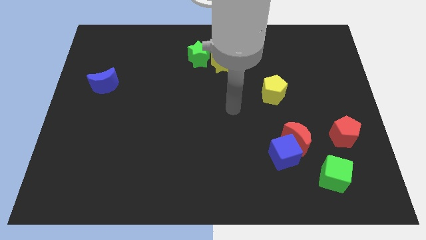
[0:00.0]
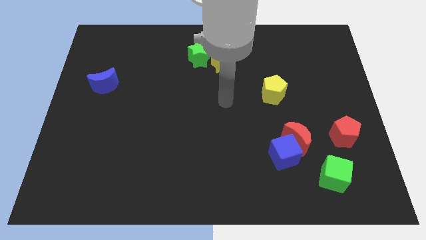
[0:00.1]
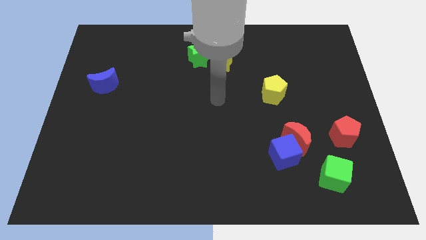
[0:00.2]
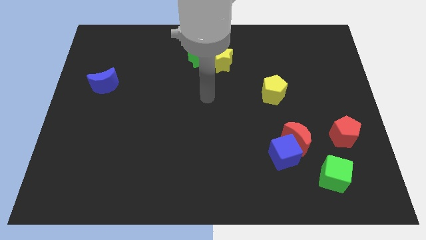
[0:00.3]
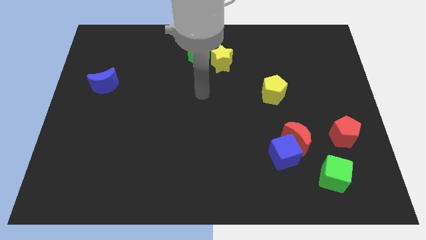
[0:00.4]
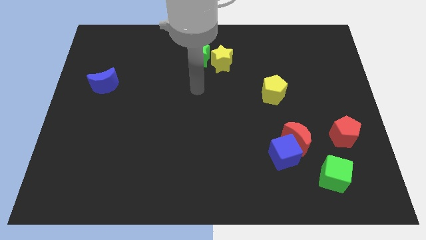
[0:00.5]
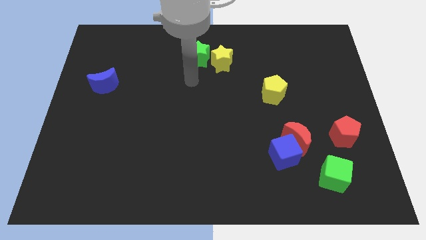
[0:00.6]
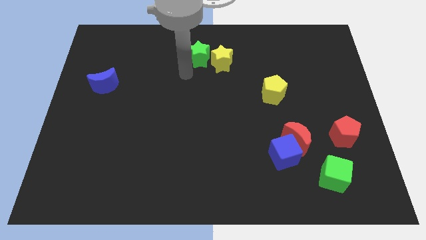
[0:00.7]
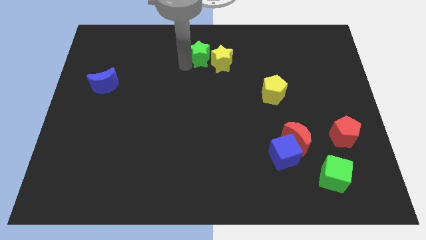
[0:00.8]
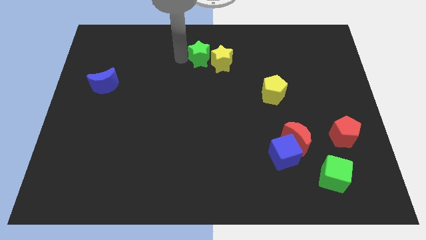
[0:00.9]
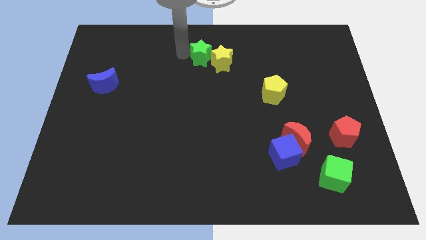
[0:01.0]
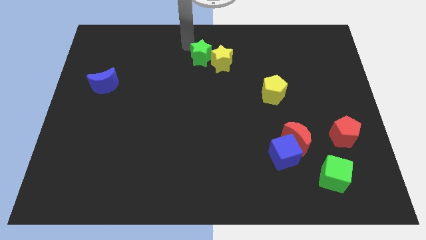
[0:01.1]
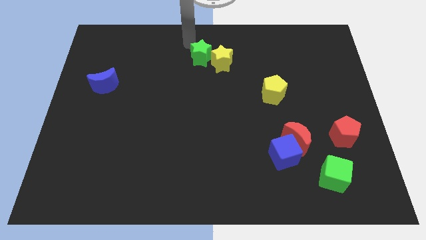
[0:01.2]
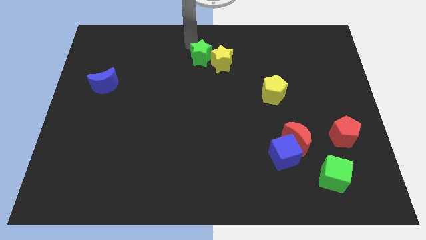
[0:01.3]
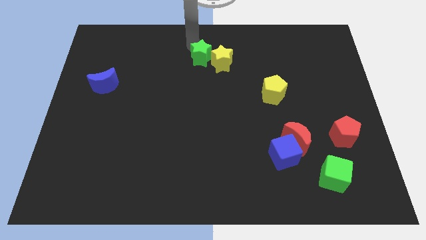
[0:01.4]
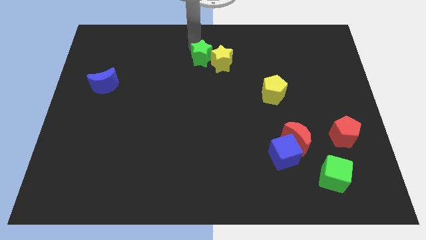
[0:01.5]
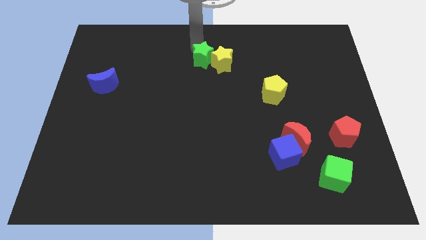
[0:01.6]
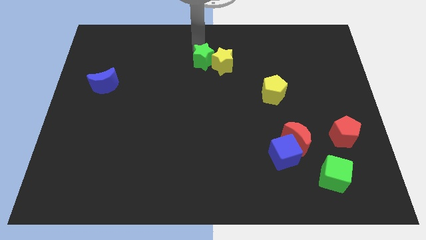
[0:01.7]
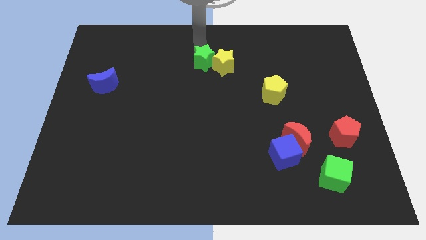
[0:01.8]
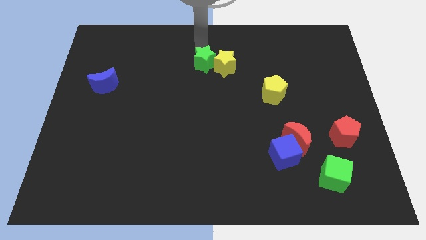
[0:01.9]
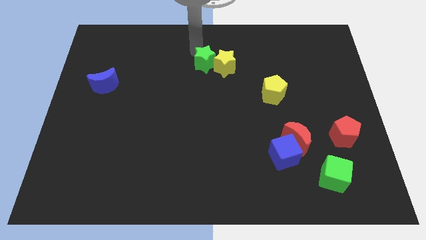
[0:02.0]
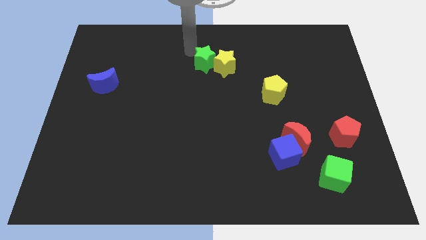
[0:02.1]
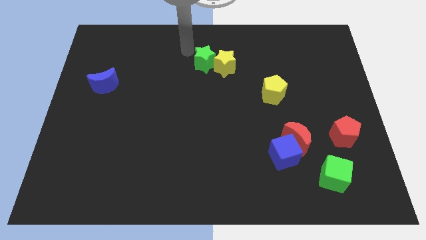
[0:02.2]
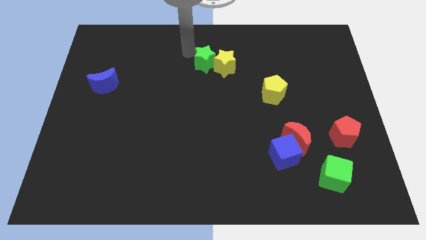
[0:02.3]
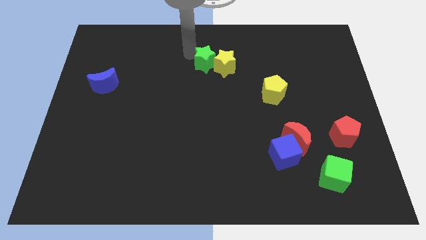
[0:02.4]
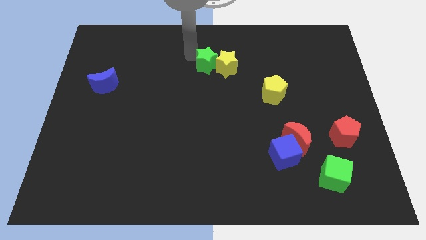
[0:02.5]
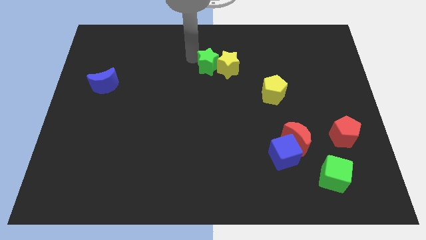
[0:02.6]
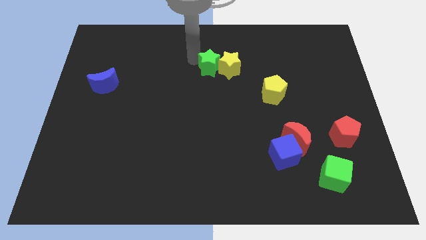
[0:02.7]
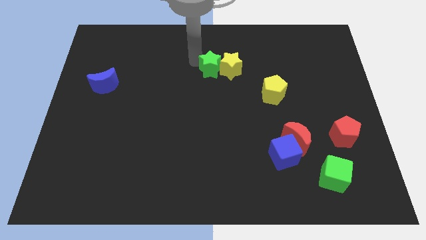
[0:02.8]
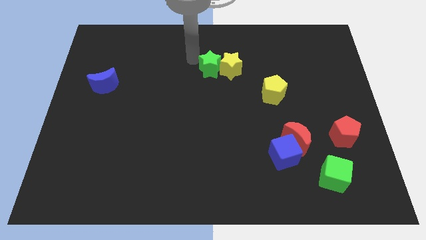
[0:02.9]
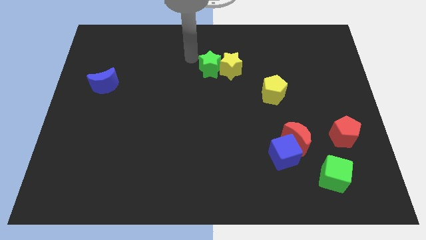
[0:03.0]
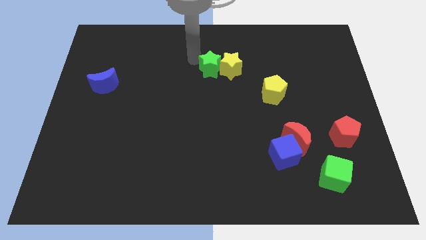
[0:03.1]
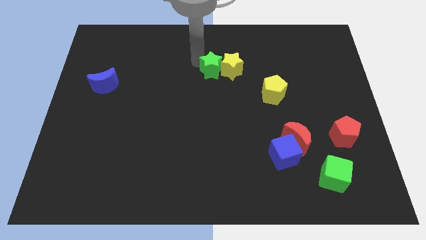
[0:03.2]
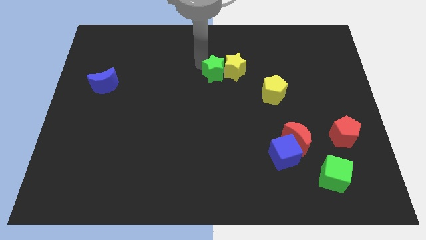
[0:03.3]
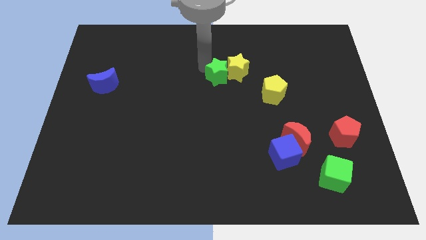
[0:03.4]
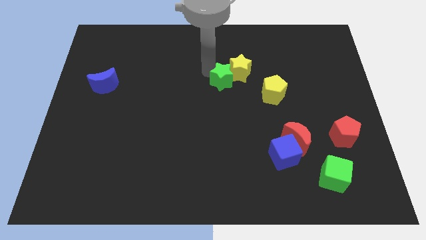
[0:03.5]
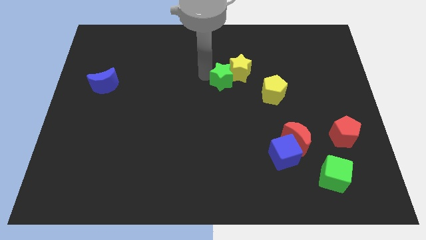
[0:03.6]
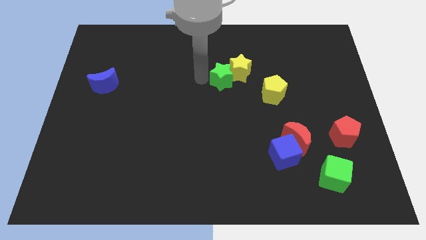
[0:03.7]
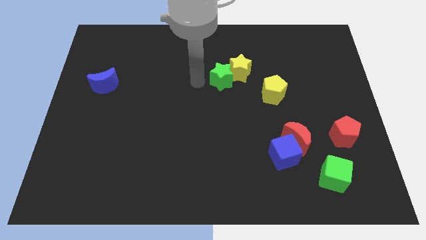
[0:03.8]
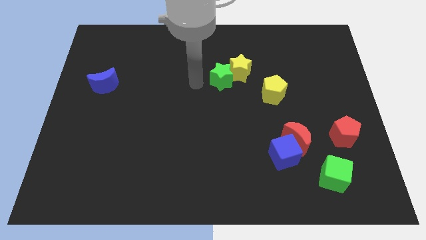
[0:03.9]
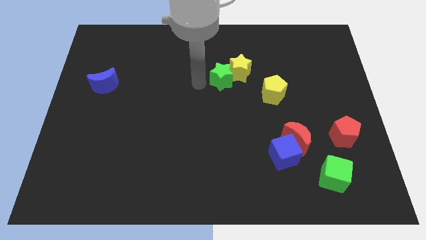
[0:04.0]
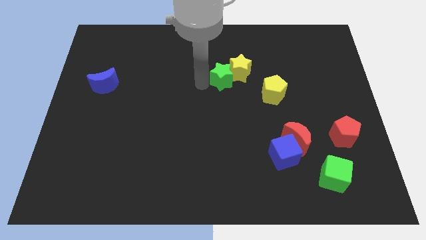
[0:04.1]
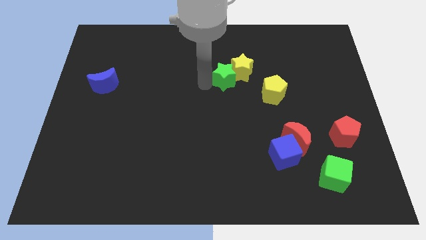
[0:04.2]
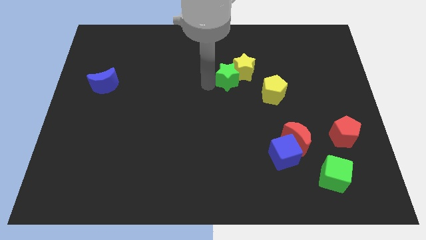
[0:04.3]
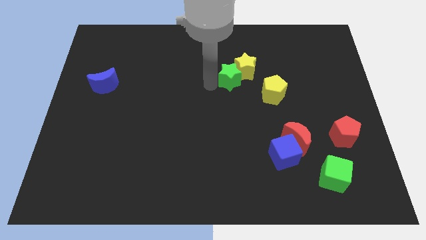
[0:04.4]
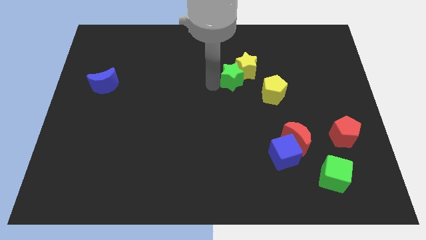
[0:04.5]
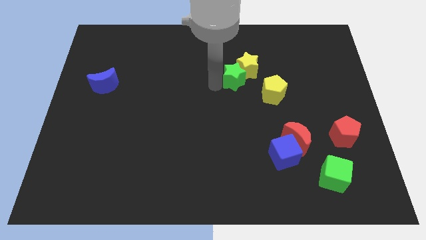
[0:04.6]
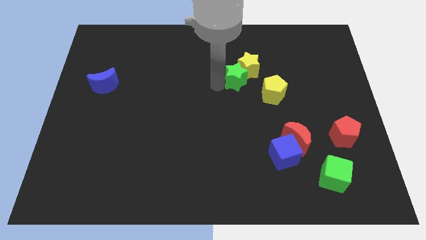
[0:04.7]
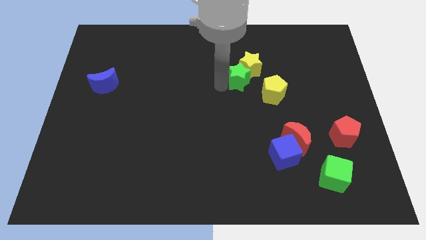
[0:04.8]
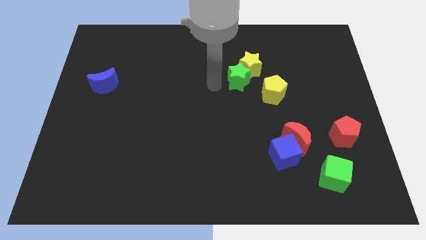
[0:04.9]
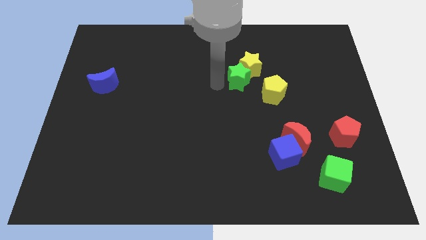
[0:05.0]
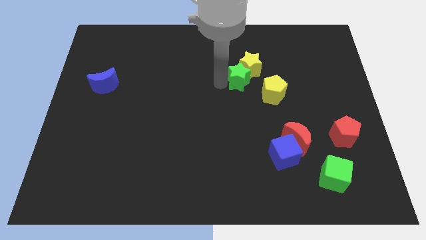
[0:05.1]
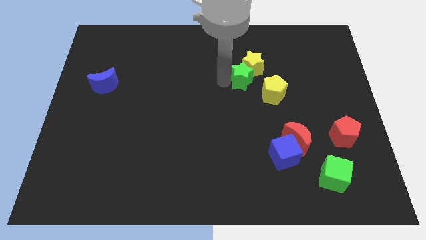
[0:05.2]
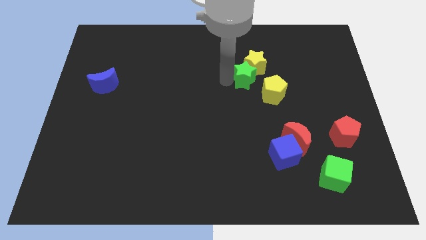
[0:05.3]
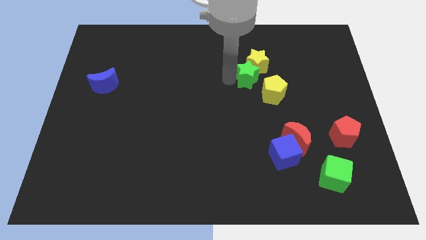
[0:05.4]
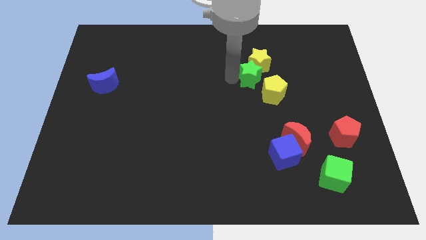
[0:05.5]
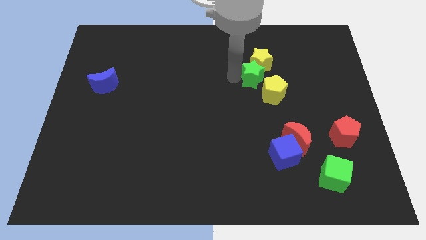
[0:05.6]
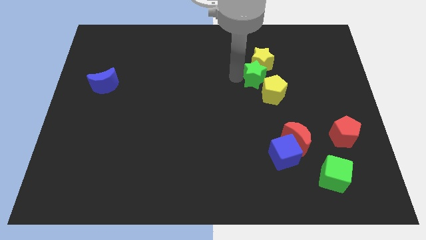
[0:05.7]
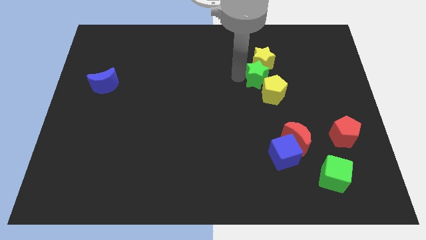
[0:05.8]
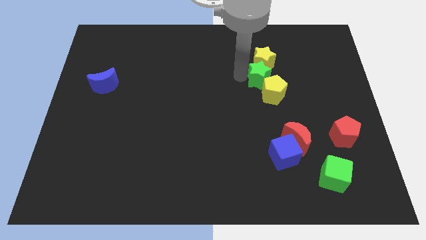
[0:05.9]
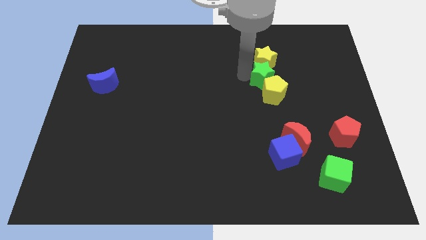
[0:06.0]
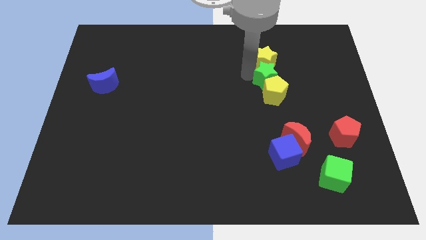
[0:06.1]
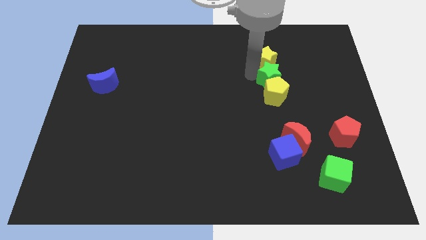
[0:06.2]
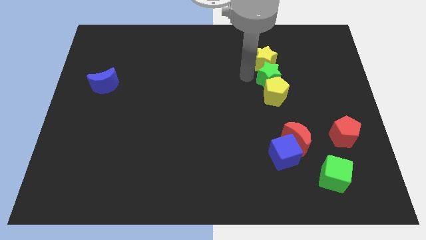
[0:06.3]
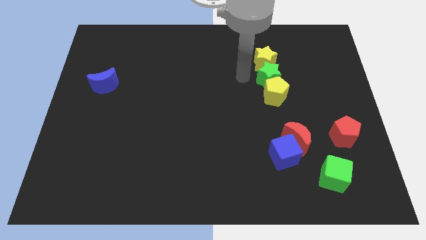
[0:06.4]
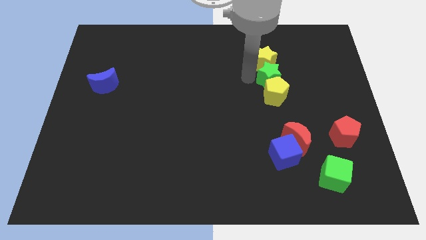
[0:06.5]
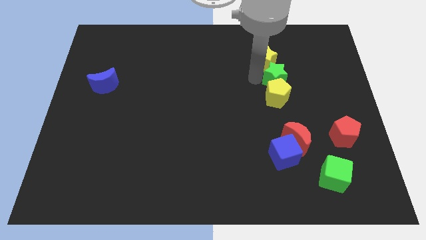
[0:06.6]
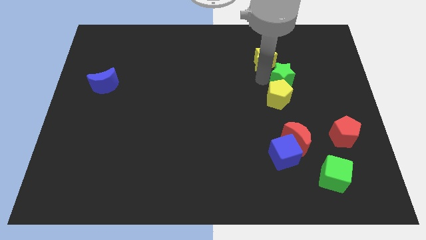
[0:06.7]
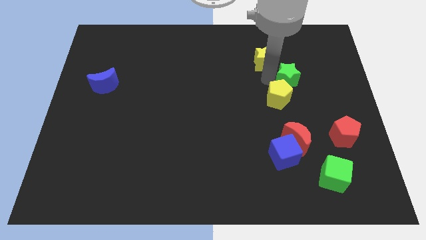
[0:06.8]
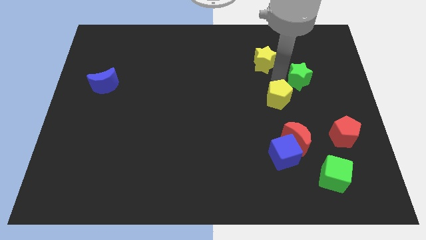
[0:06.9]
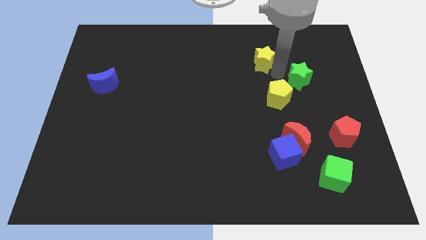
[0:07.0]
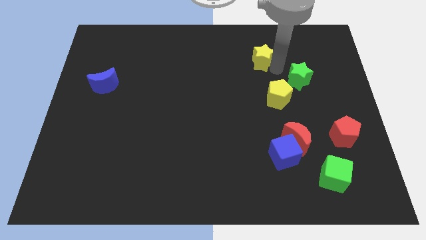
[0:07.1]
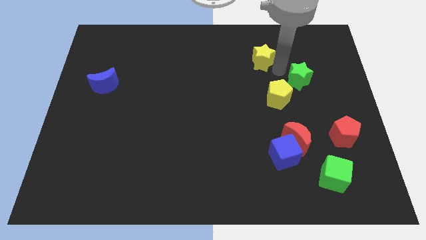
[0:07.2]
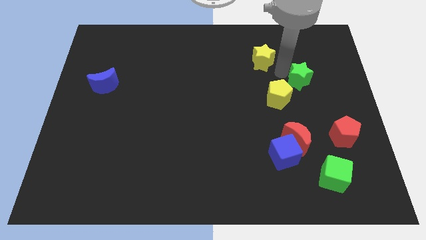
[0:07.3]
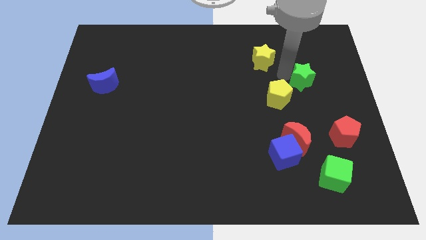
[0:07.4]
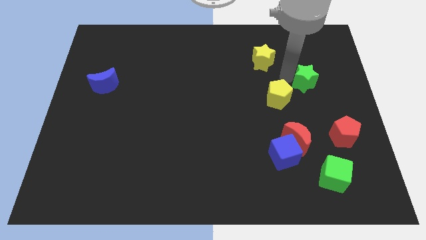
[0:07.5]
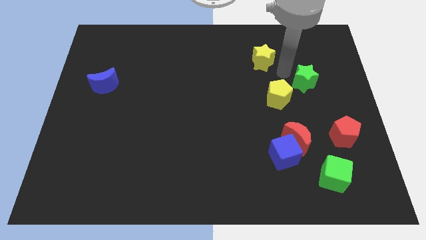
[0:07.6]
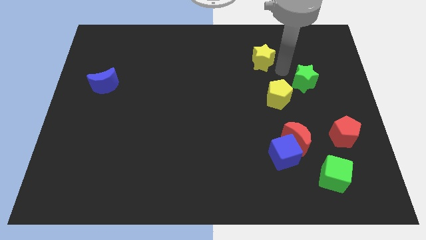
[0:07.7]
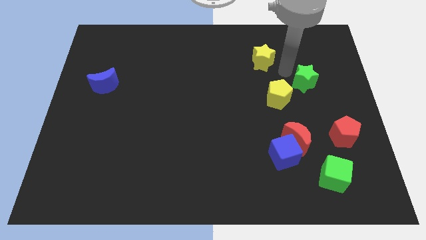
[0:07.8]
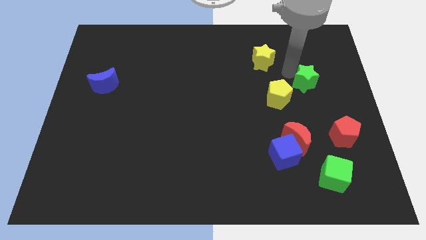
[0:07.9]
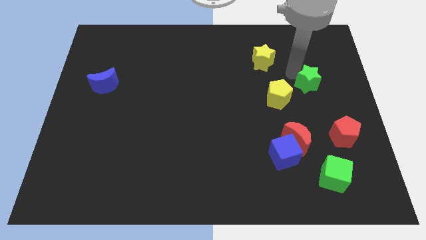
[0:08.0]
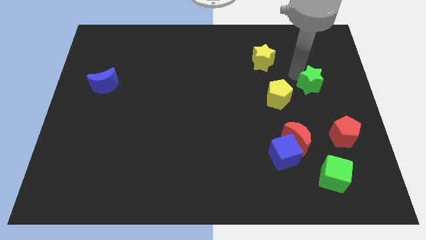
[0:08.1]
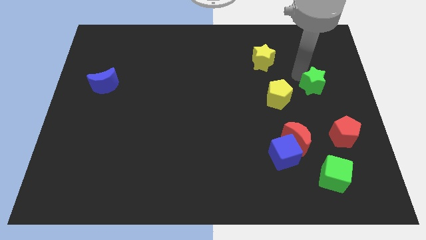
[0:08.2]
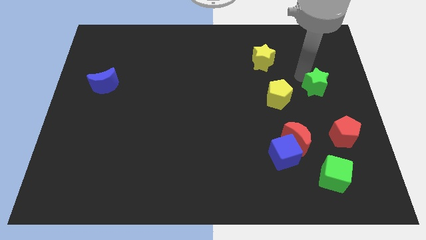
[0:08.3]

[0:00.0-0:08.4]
put the green star above the red pentagon
